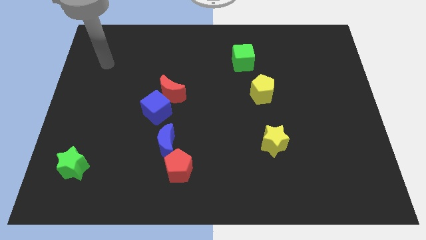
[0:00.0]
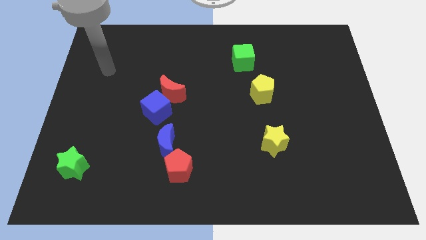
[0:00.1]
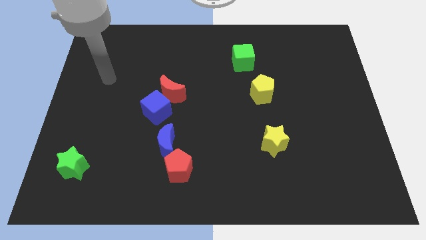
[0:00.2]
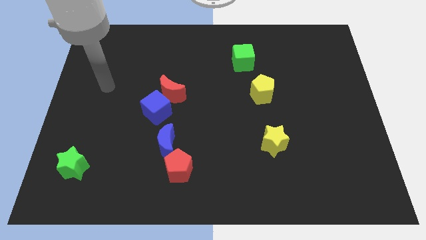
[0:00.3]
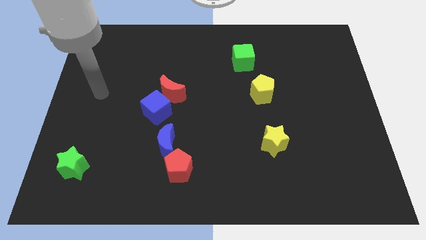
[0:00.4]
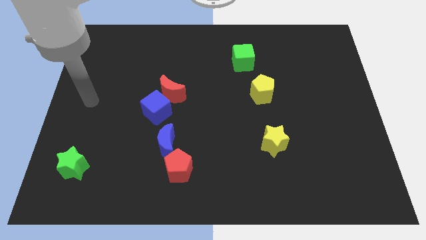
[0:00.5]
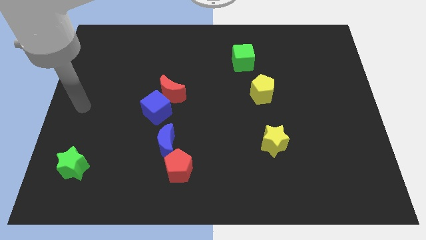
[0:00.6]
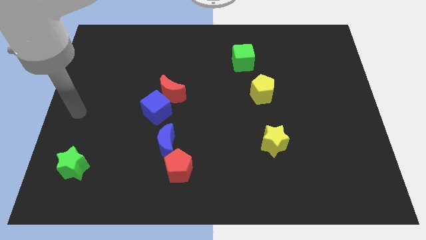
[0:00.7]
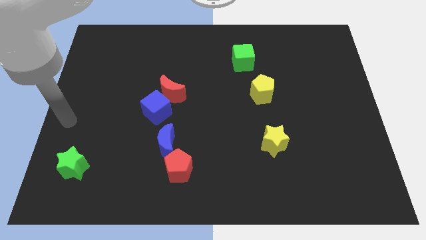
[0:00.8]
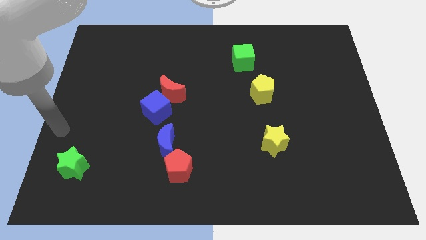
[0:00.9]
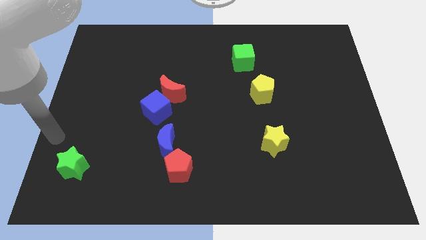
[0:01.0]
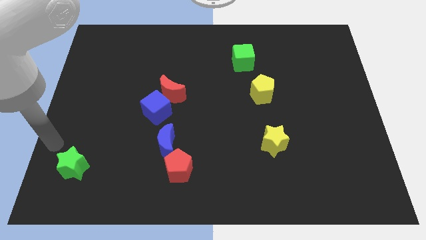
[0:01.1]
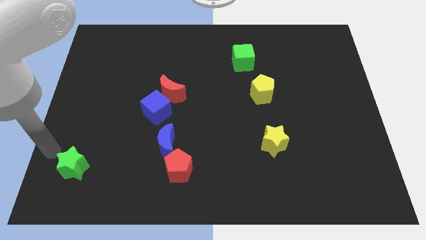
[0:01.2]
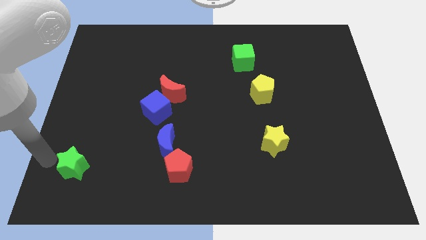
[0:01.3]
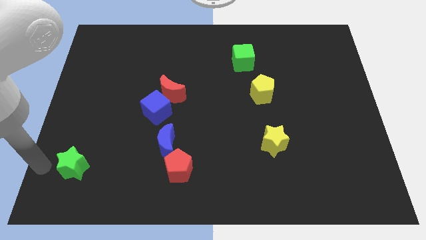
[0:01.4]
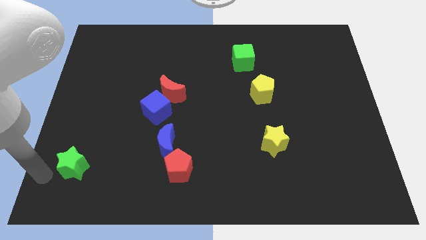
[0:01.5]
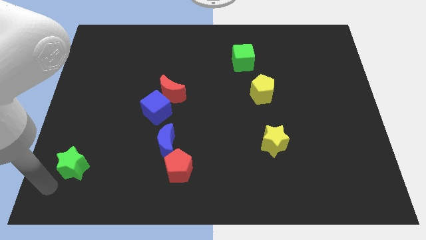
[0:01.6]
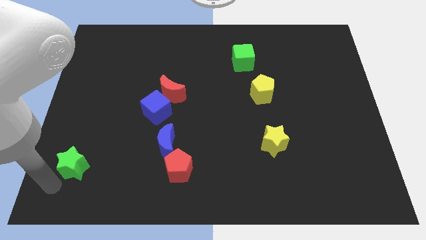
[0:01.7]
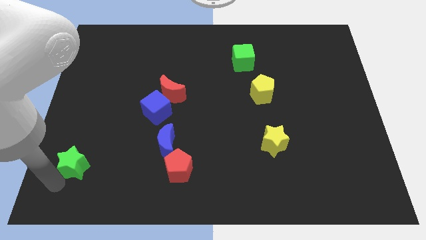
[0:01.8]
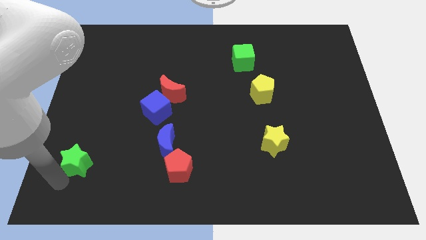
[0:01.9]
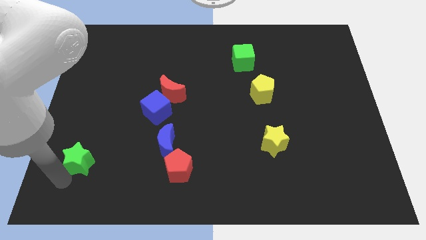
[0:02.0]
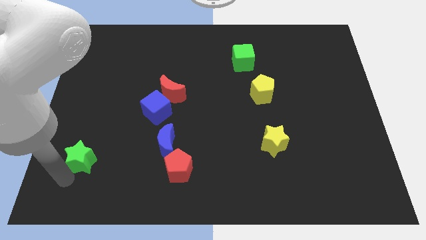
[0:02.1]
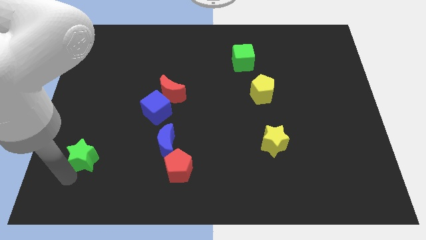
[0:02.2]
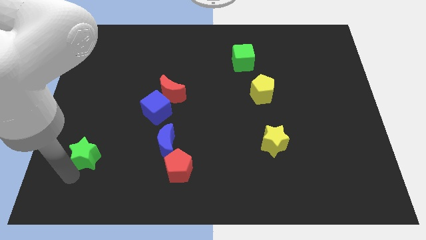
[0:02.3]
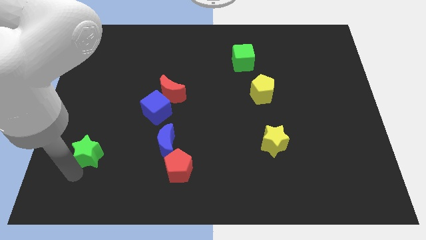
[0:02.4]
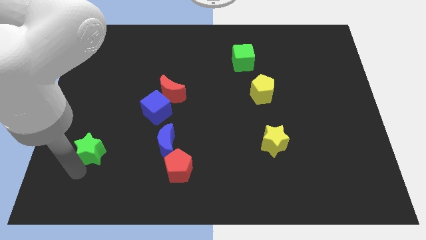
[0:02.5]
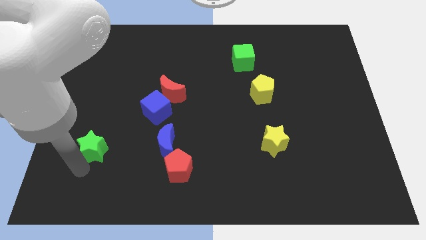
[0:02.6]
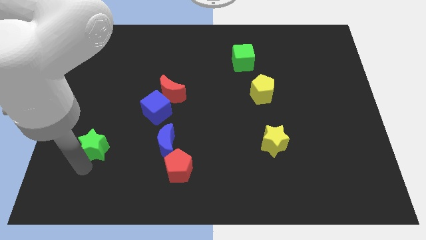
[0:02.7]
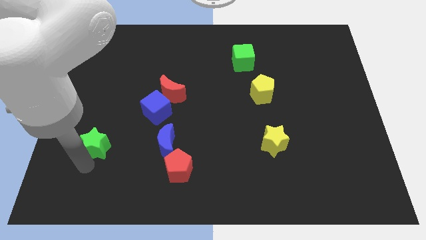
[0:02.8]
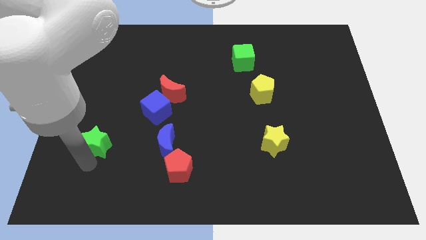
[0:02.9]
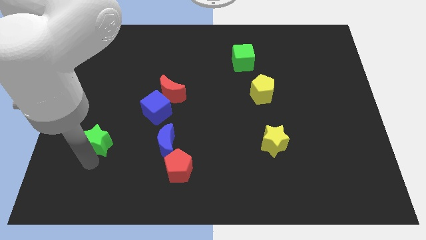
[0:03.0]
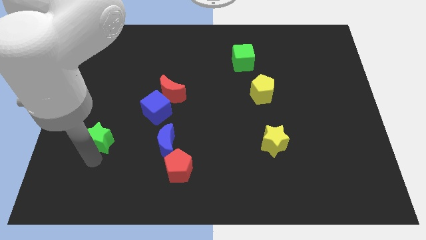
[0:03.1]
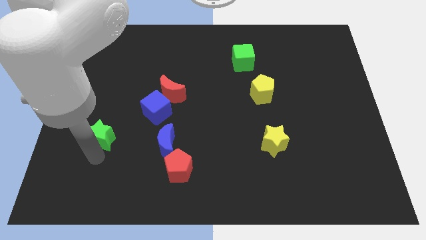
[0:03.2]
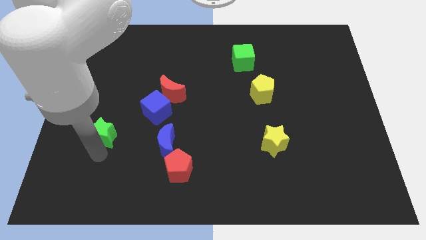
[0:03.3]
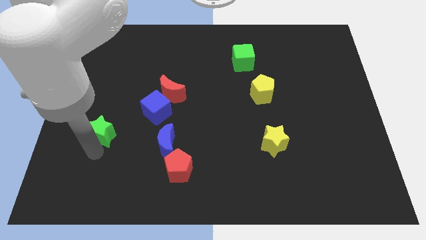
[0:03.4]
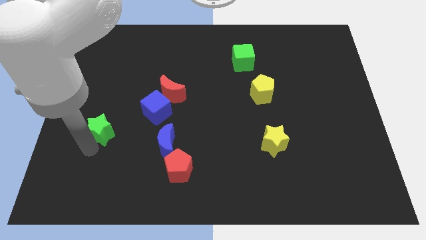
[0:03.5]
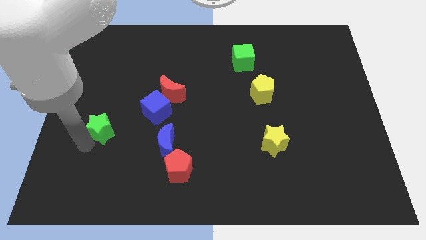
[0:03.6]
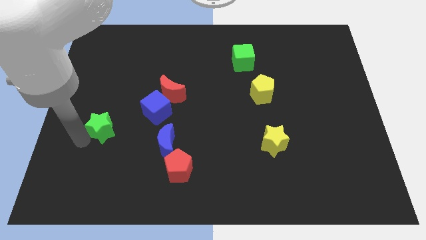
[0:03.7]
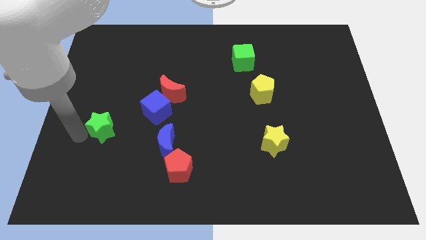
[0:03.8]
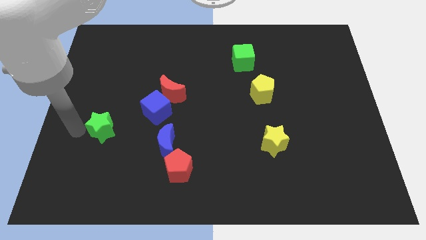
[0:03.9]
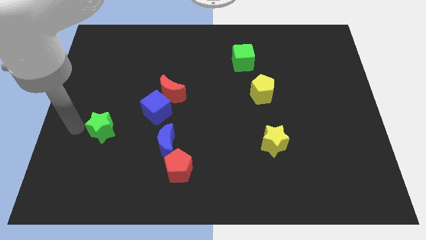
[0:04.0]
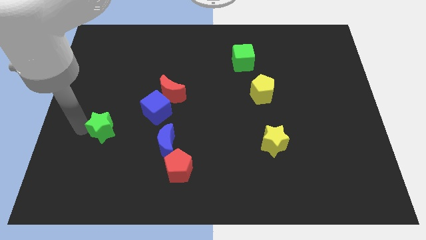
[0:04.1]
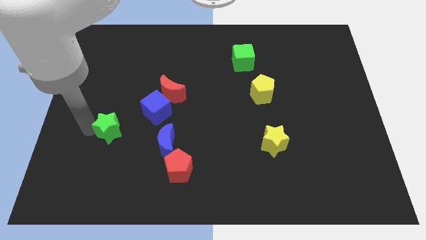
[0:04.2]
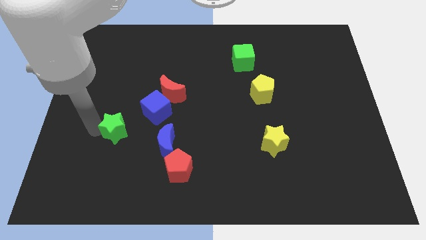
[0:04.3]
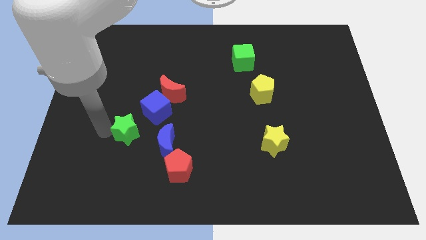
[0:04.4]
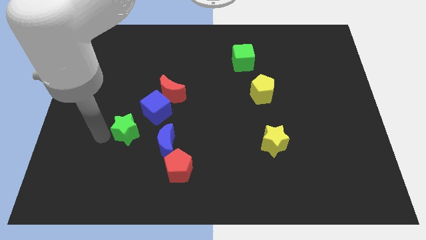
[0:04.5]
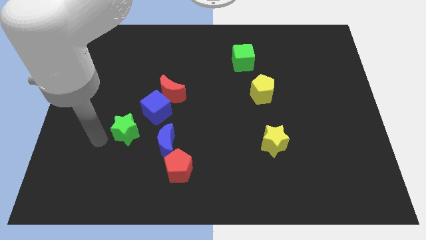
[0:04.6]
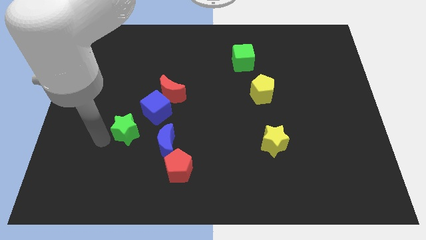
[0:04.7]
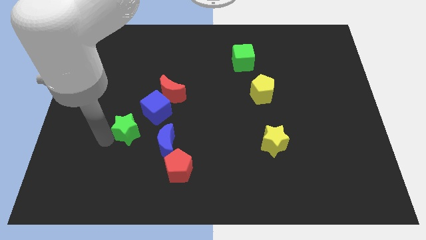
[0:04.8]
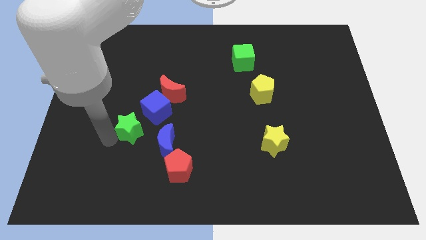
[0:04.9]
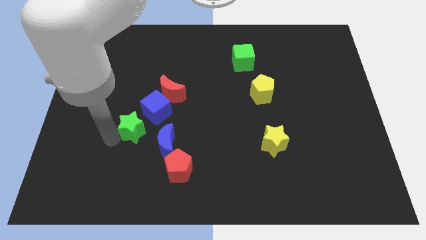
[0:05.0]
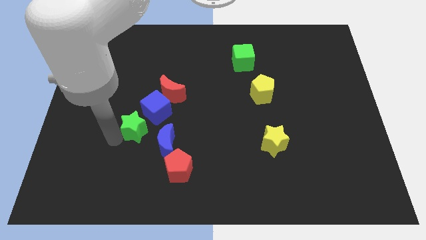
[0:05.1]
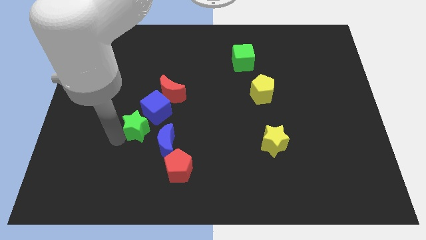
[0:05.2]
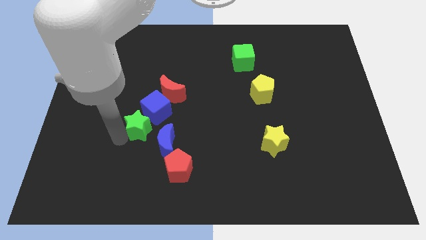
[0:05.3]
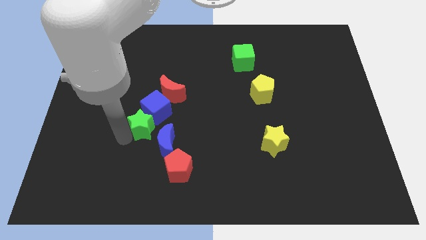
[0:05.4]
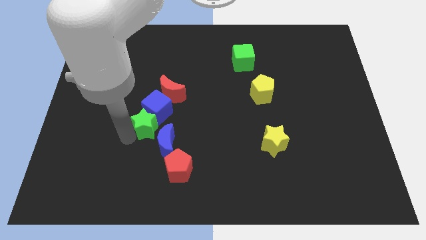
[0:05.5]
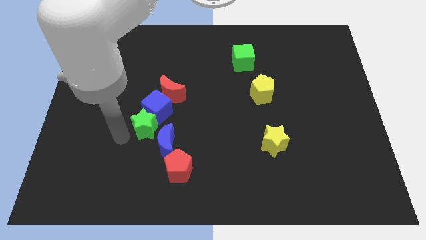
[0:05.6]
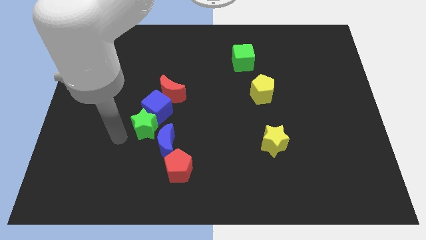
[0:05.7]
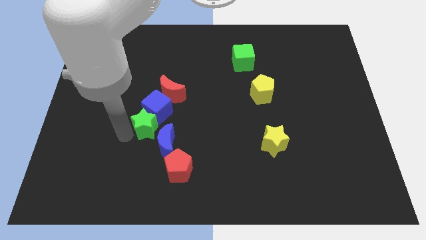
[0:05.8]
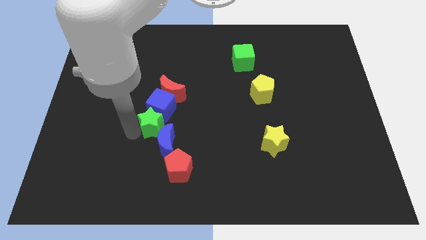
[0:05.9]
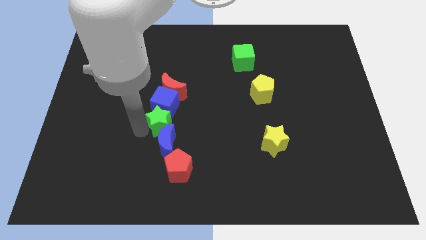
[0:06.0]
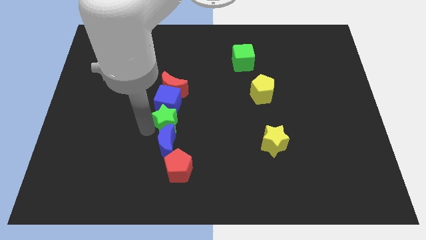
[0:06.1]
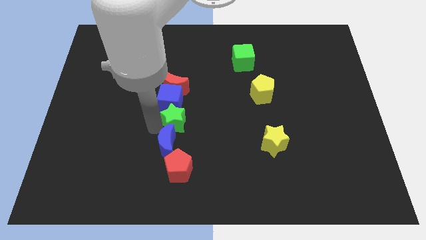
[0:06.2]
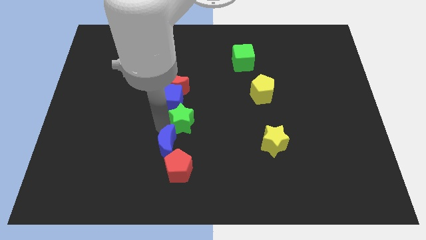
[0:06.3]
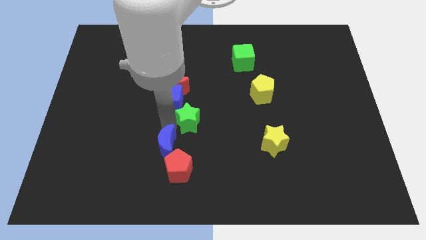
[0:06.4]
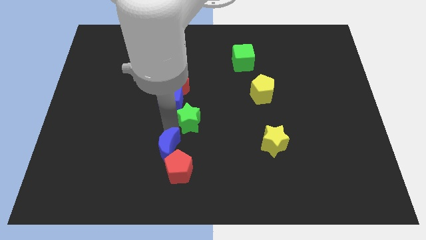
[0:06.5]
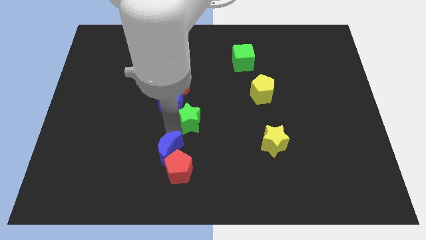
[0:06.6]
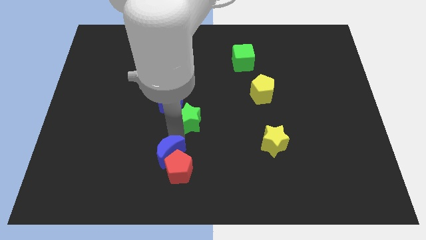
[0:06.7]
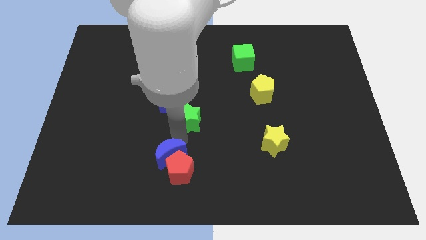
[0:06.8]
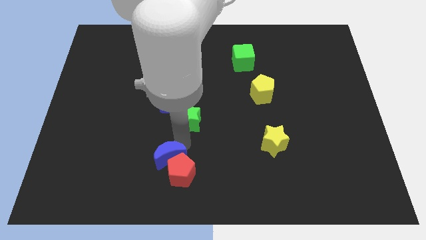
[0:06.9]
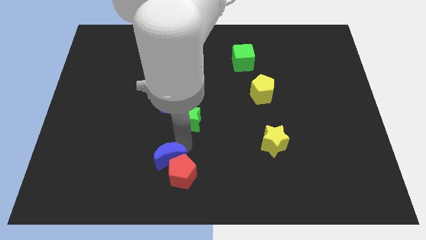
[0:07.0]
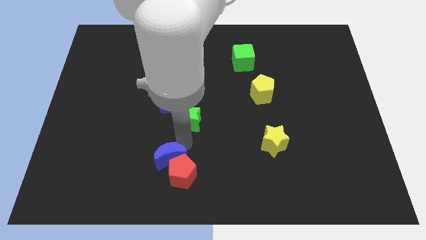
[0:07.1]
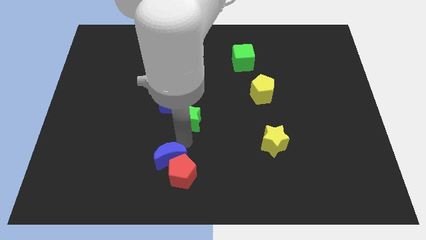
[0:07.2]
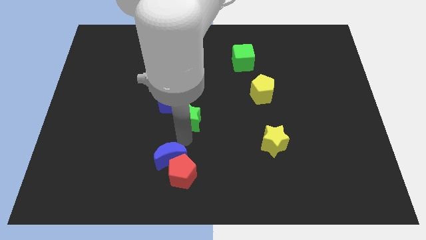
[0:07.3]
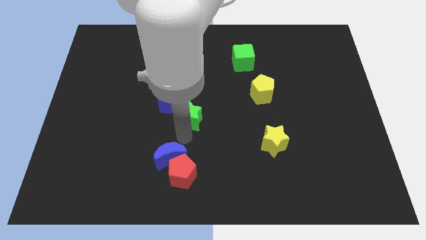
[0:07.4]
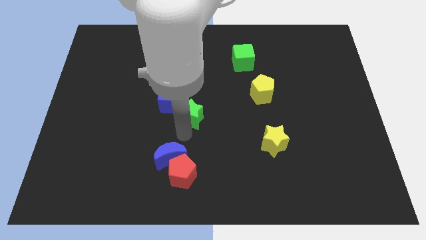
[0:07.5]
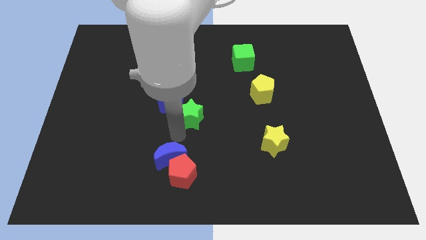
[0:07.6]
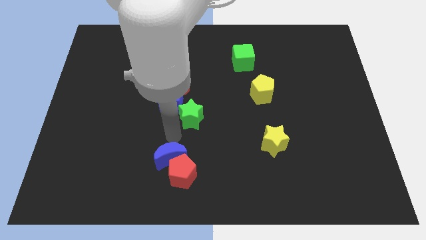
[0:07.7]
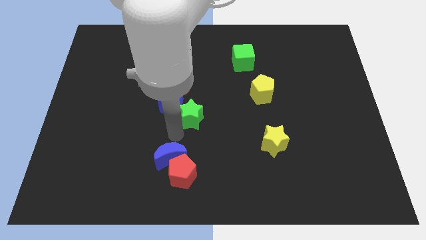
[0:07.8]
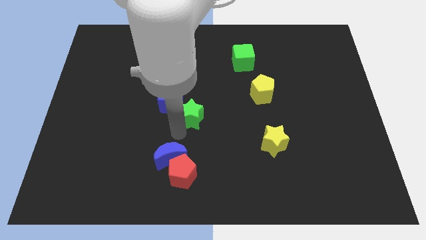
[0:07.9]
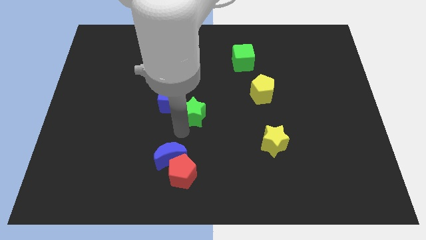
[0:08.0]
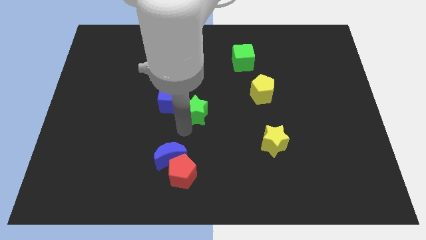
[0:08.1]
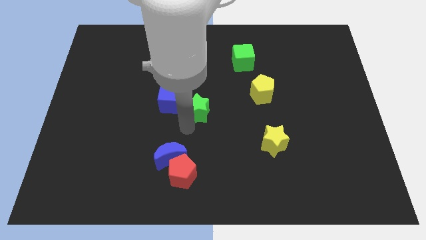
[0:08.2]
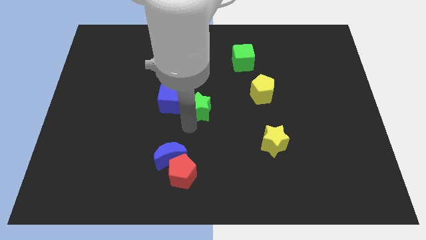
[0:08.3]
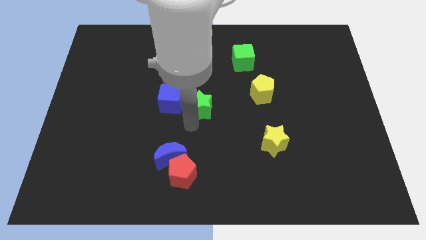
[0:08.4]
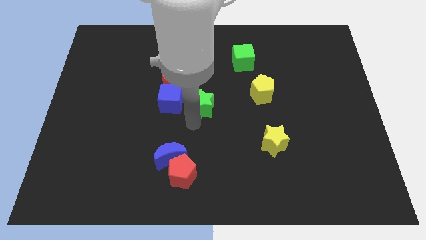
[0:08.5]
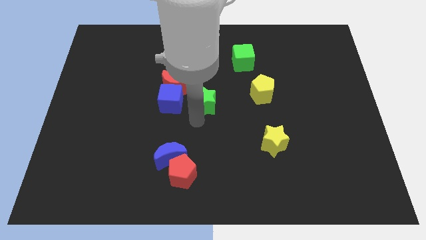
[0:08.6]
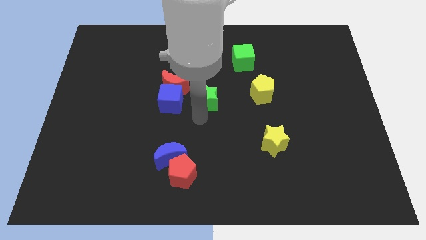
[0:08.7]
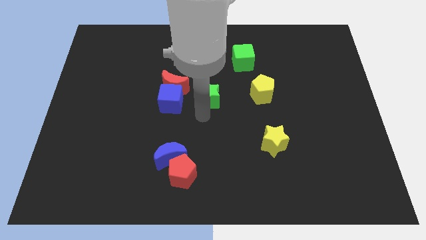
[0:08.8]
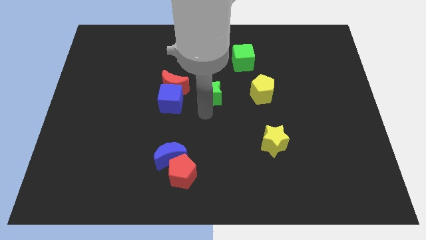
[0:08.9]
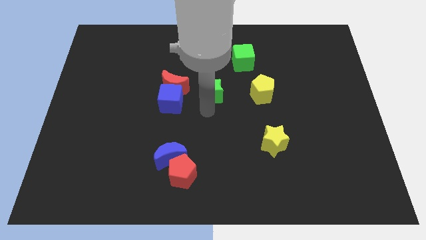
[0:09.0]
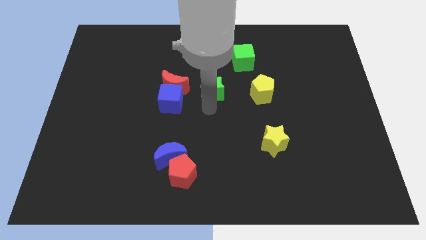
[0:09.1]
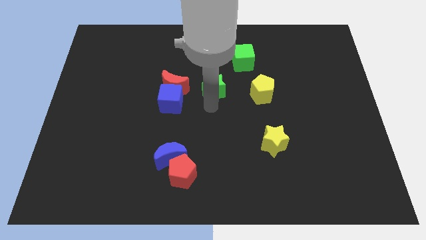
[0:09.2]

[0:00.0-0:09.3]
push the green star to the bottom left of the green cube
